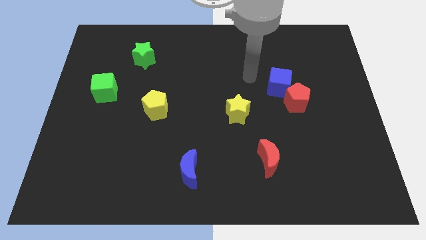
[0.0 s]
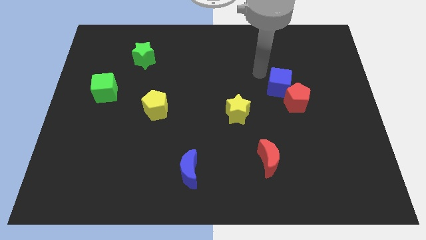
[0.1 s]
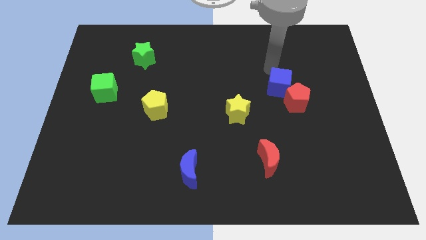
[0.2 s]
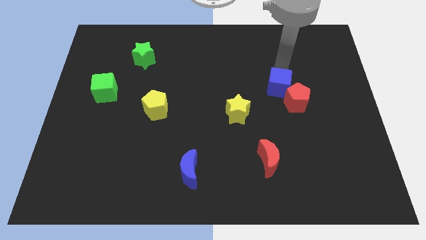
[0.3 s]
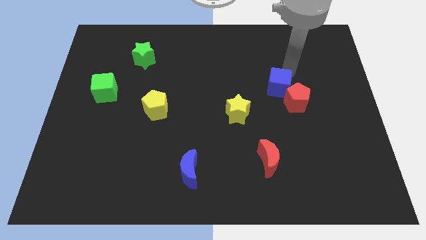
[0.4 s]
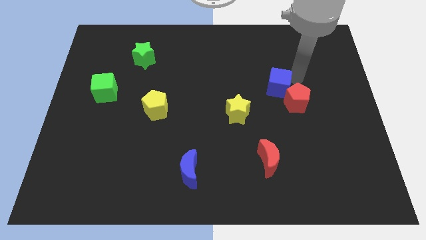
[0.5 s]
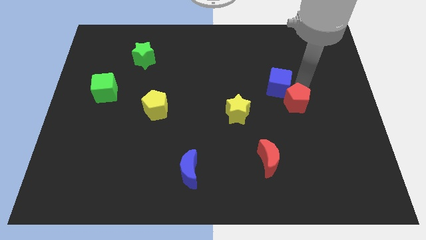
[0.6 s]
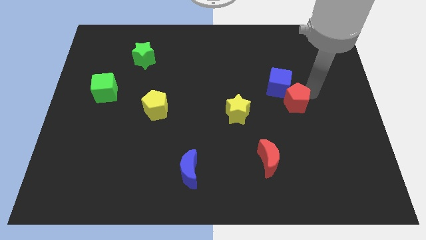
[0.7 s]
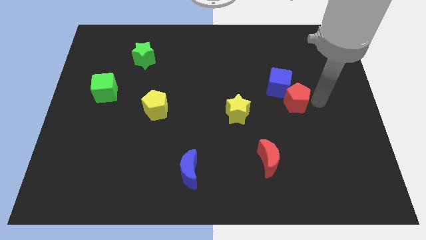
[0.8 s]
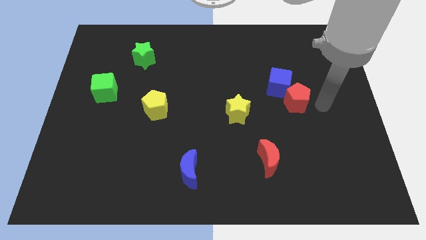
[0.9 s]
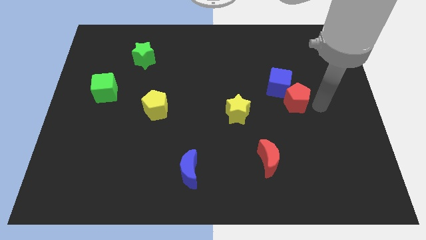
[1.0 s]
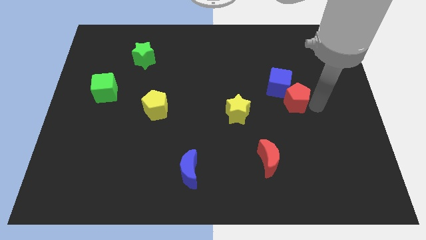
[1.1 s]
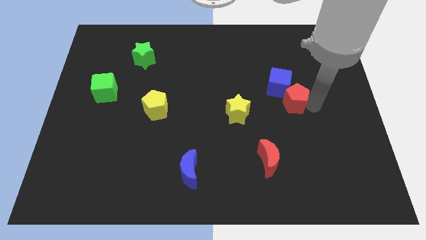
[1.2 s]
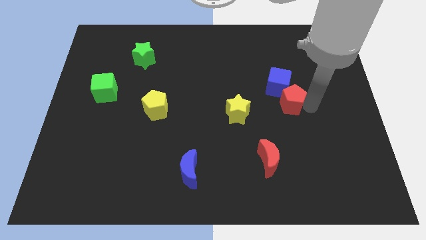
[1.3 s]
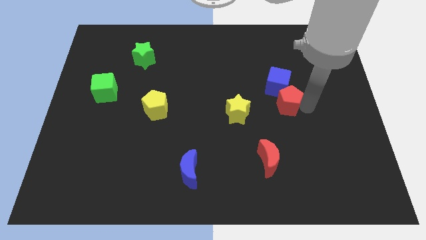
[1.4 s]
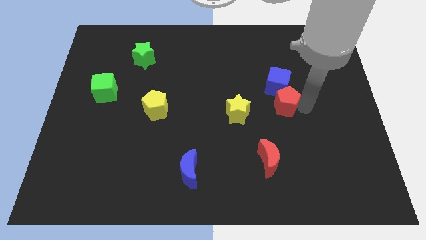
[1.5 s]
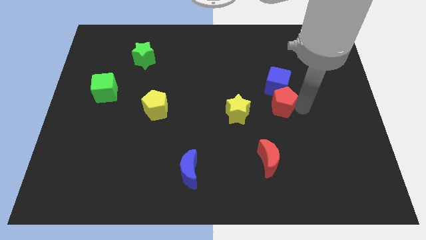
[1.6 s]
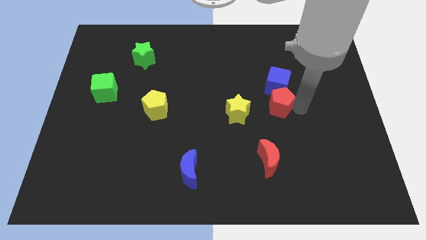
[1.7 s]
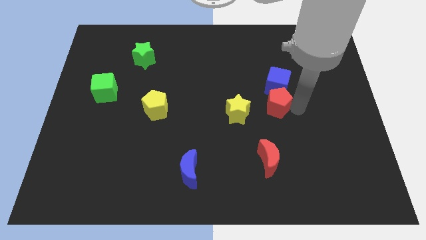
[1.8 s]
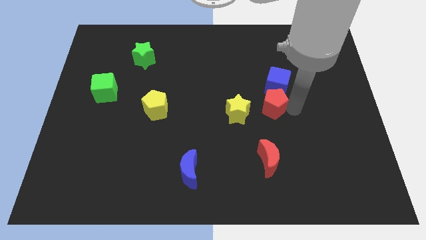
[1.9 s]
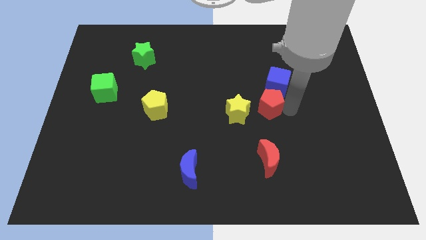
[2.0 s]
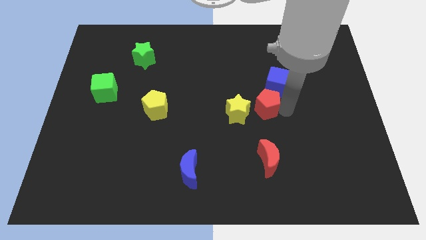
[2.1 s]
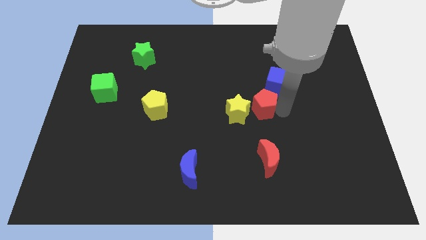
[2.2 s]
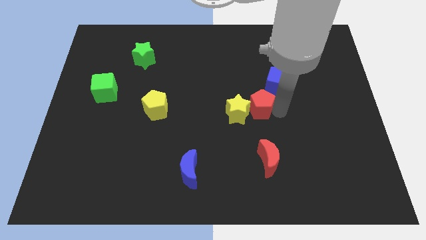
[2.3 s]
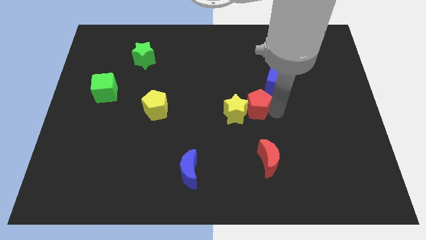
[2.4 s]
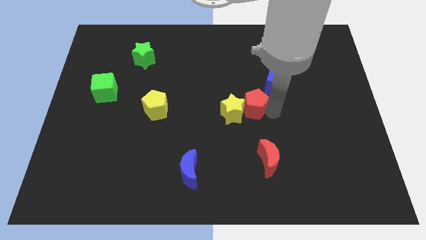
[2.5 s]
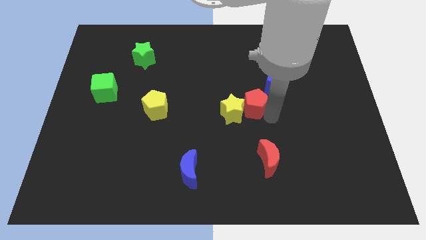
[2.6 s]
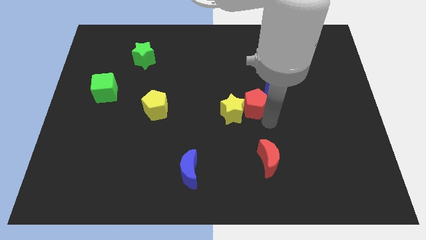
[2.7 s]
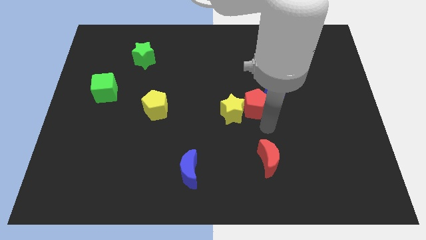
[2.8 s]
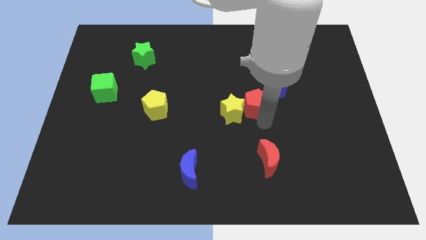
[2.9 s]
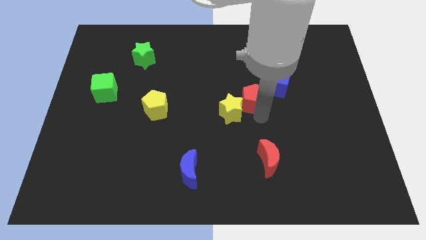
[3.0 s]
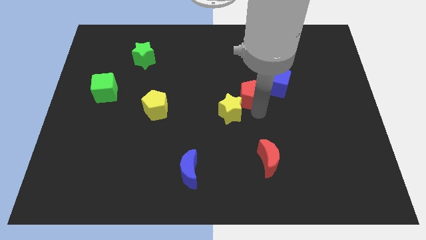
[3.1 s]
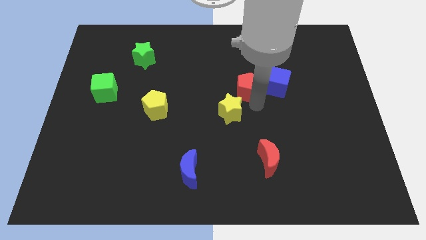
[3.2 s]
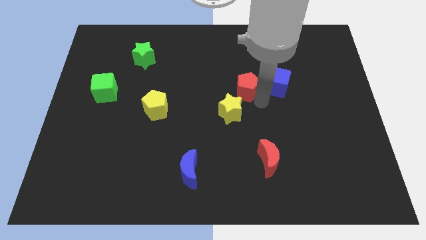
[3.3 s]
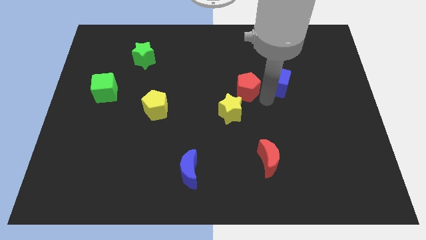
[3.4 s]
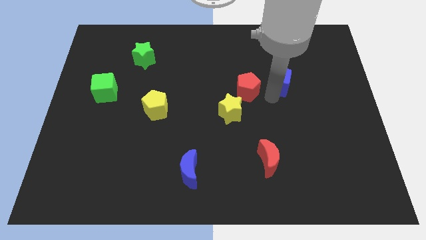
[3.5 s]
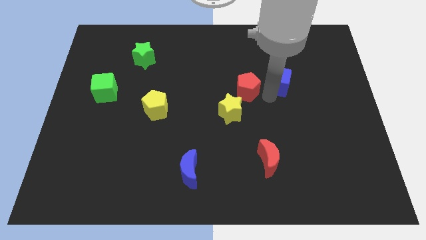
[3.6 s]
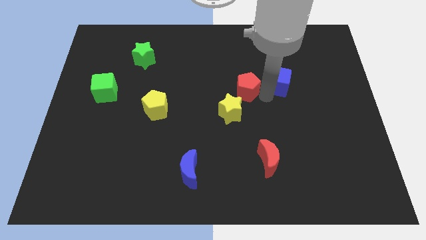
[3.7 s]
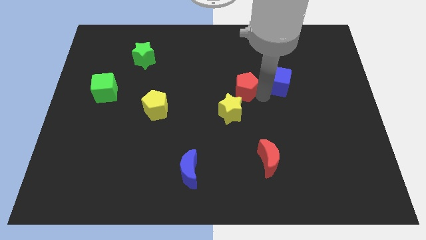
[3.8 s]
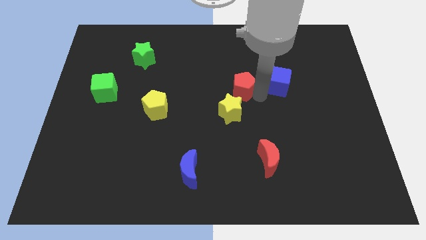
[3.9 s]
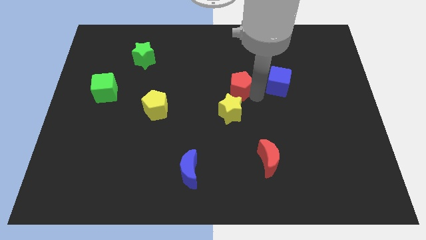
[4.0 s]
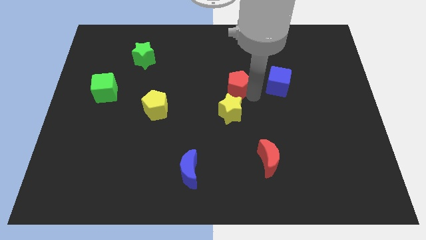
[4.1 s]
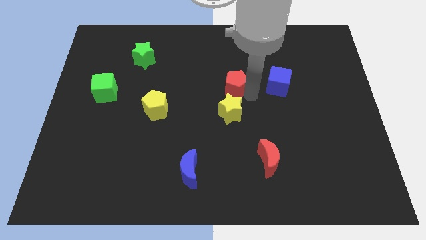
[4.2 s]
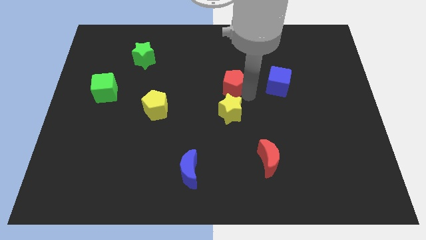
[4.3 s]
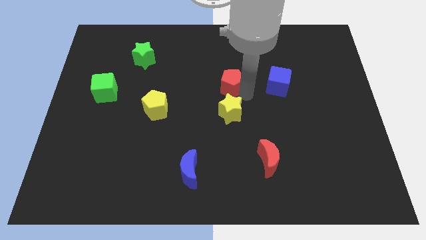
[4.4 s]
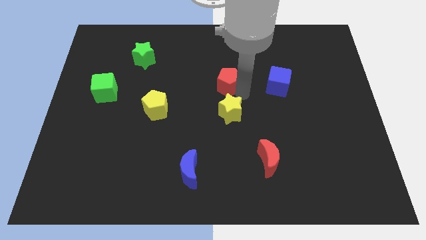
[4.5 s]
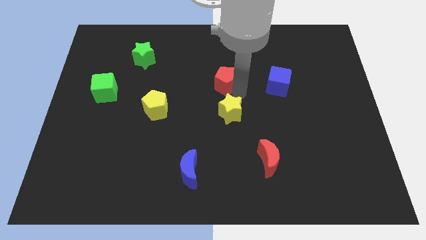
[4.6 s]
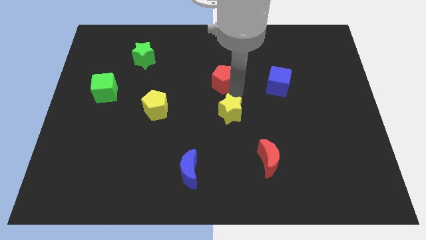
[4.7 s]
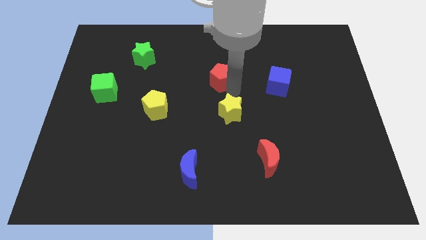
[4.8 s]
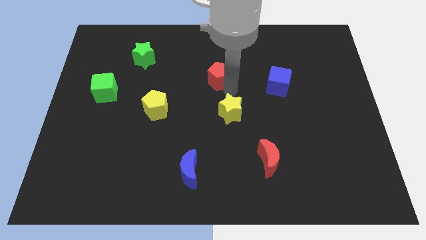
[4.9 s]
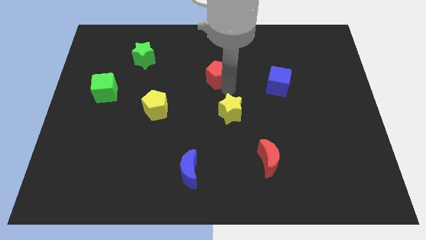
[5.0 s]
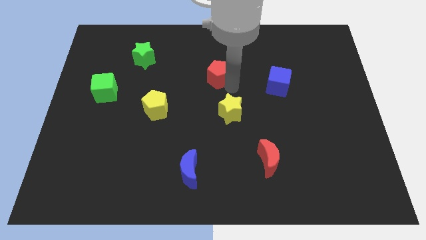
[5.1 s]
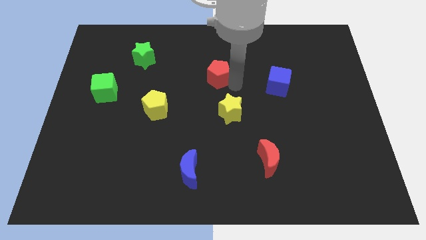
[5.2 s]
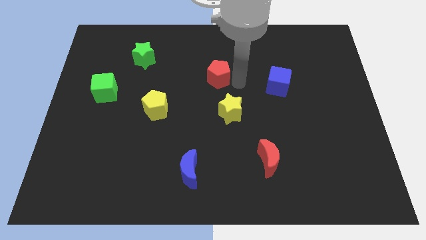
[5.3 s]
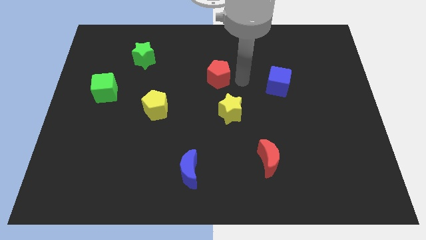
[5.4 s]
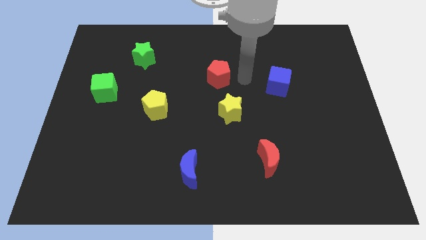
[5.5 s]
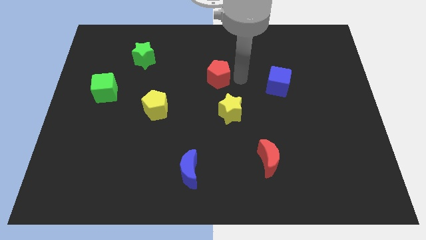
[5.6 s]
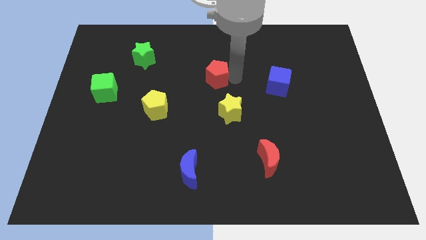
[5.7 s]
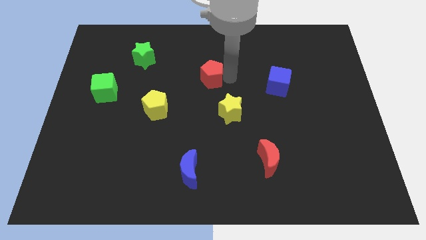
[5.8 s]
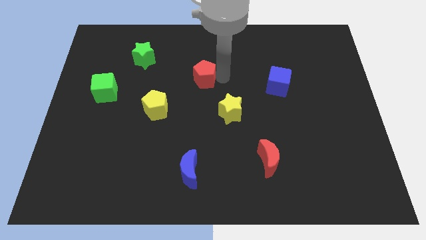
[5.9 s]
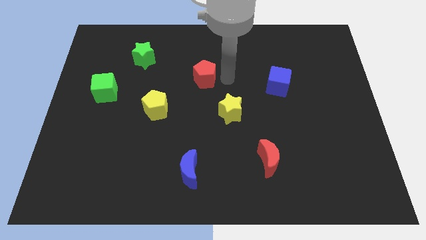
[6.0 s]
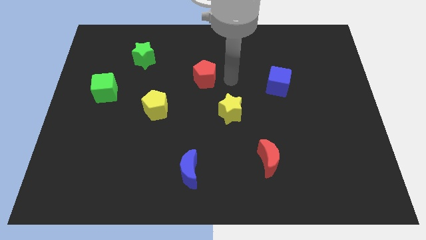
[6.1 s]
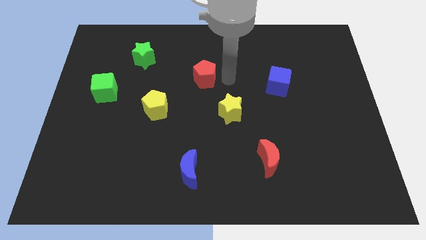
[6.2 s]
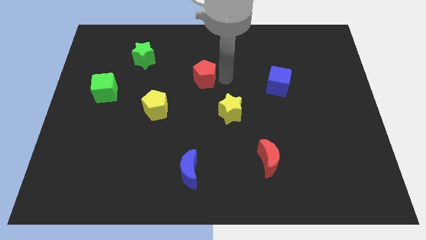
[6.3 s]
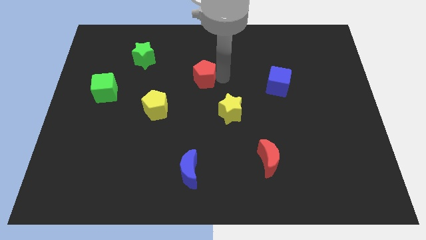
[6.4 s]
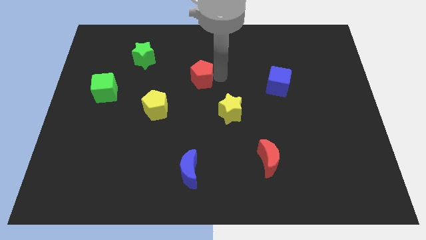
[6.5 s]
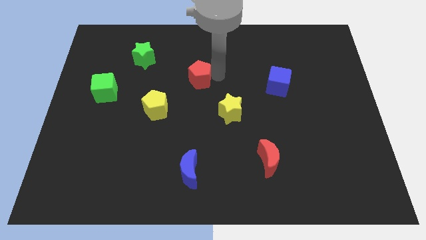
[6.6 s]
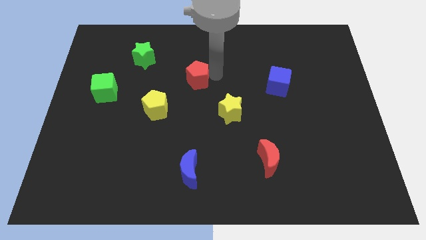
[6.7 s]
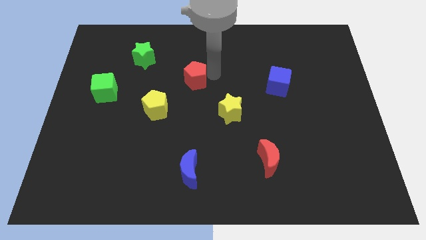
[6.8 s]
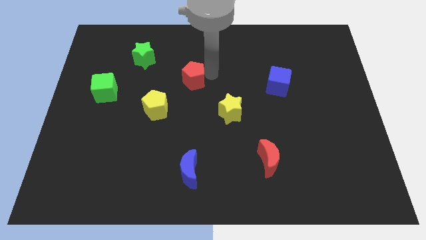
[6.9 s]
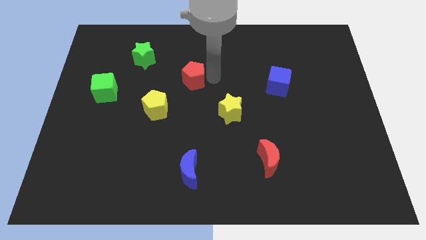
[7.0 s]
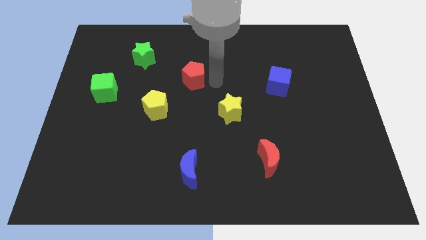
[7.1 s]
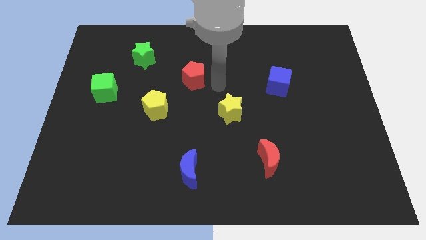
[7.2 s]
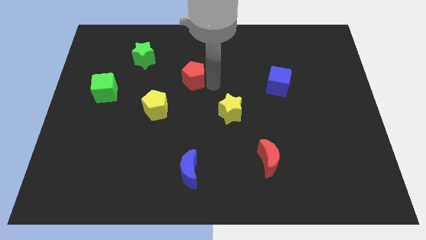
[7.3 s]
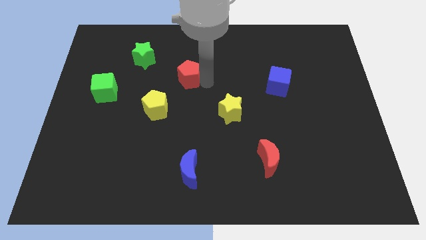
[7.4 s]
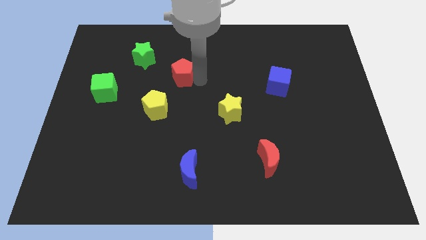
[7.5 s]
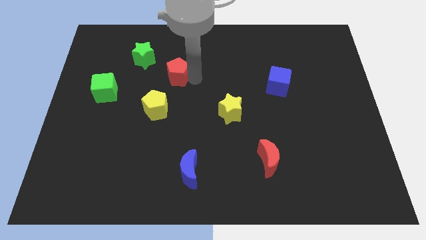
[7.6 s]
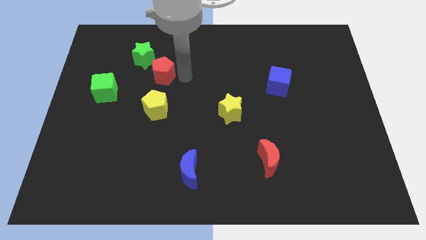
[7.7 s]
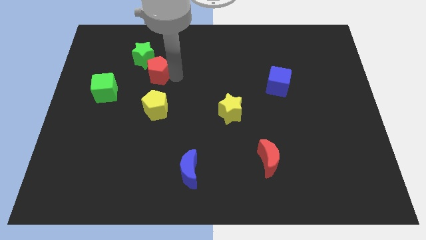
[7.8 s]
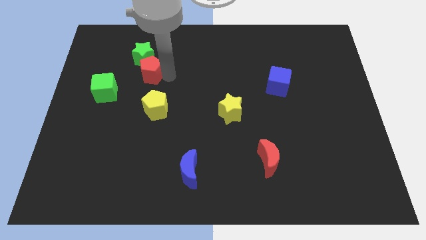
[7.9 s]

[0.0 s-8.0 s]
put the red pentagon next to the green star
